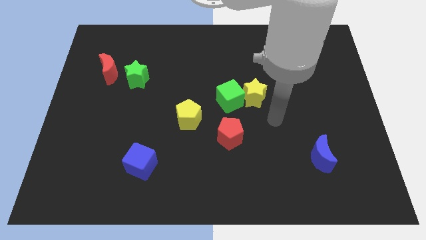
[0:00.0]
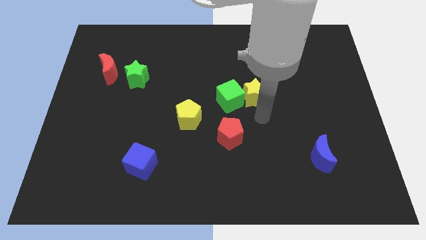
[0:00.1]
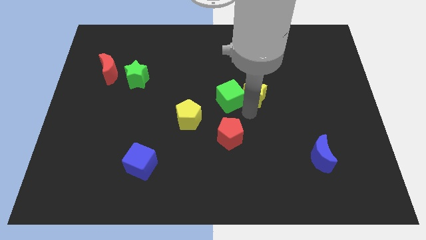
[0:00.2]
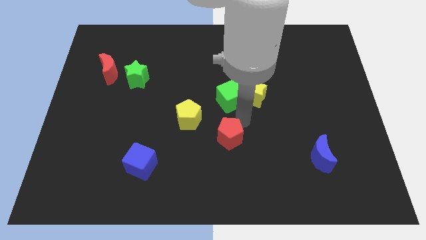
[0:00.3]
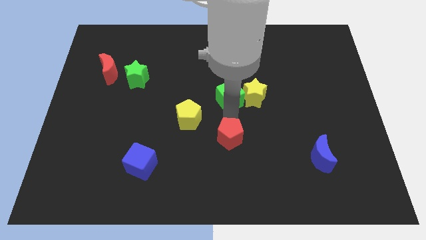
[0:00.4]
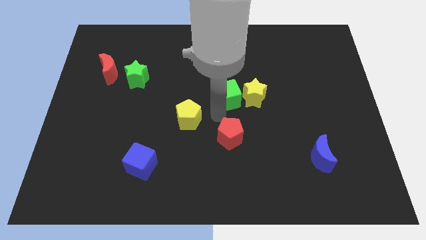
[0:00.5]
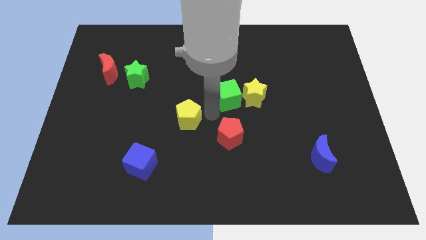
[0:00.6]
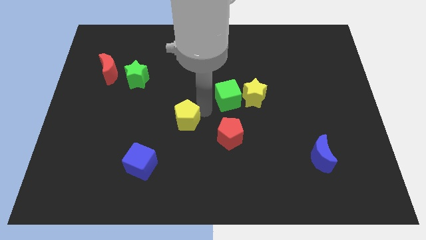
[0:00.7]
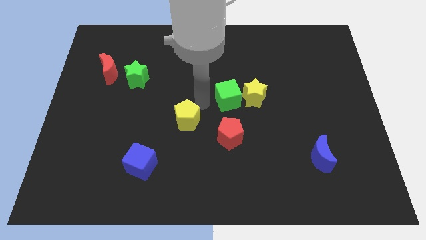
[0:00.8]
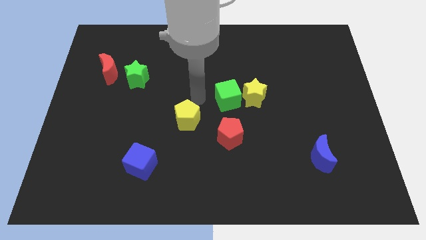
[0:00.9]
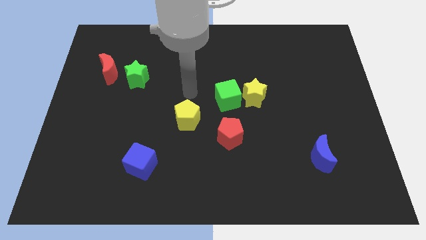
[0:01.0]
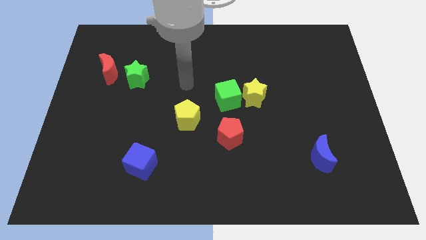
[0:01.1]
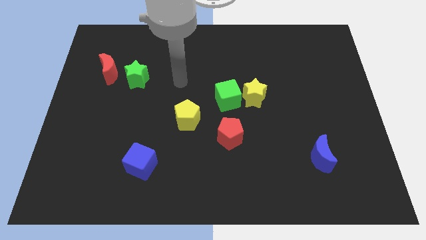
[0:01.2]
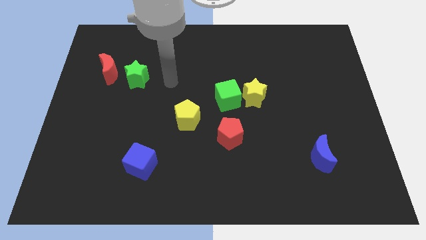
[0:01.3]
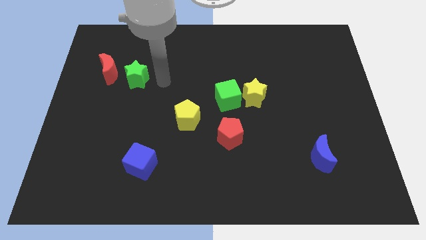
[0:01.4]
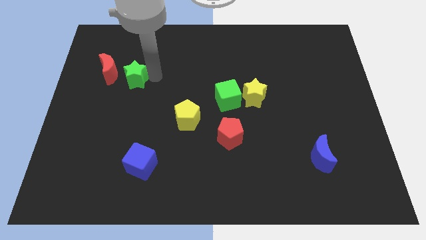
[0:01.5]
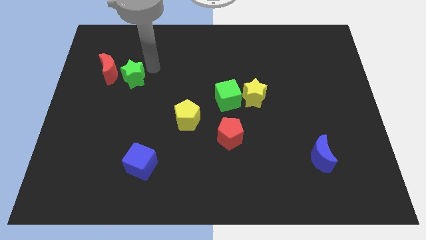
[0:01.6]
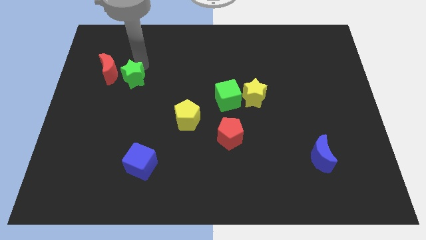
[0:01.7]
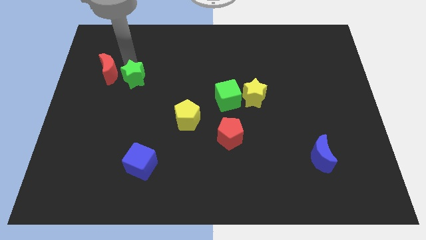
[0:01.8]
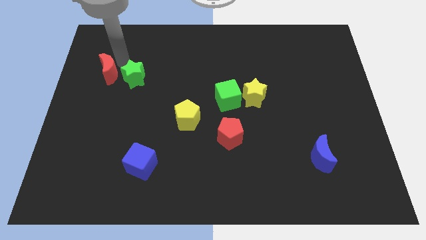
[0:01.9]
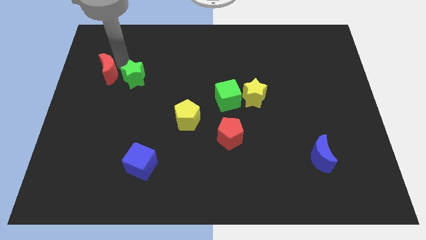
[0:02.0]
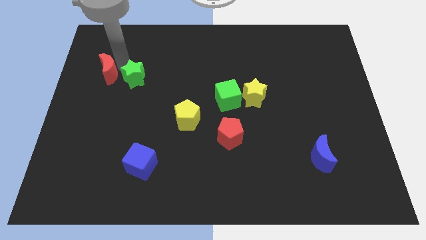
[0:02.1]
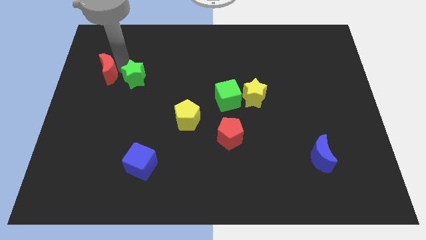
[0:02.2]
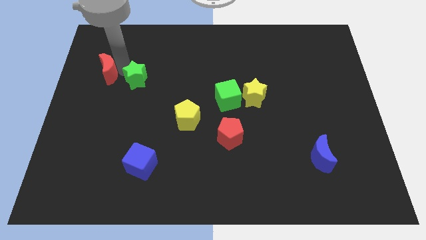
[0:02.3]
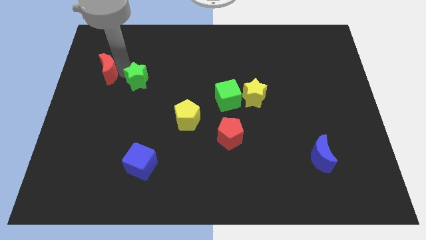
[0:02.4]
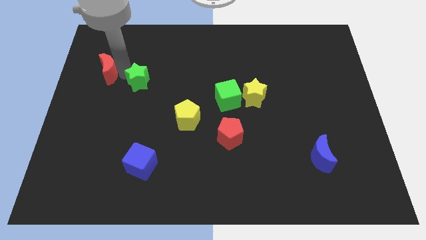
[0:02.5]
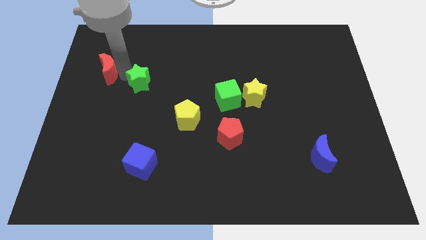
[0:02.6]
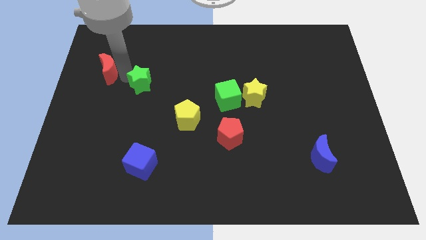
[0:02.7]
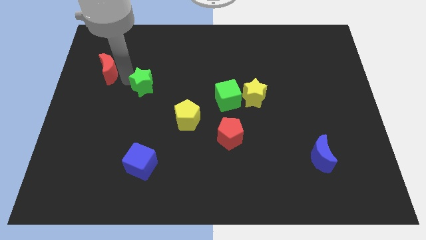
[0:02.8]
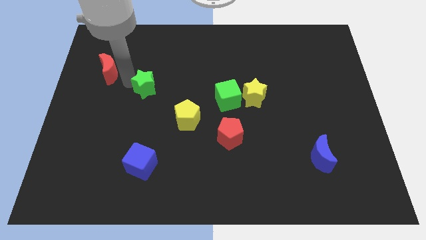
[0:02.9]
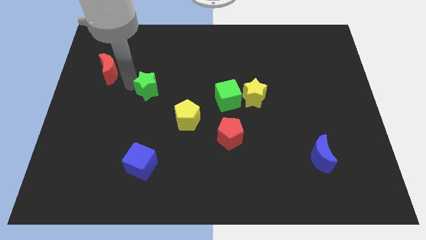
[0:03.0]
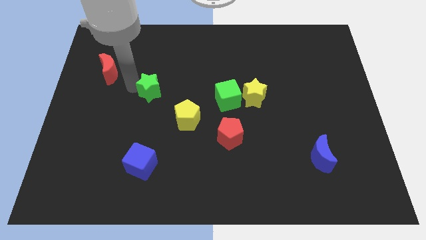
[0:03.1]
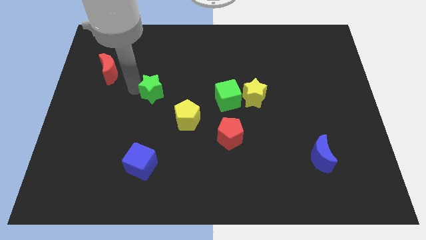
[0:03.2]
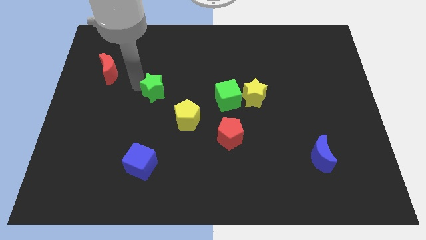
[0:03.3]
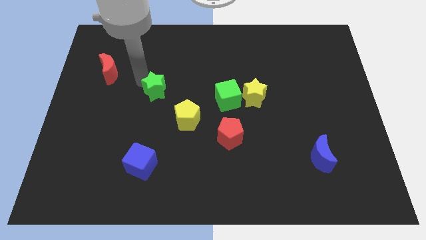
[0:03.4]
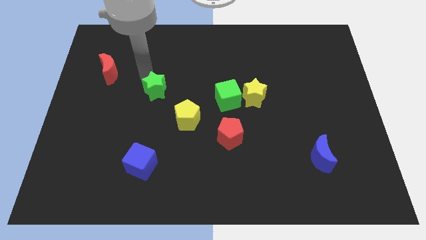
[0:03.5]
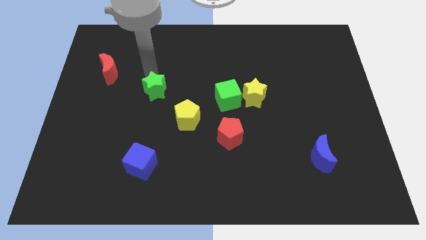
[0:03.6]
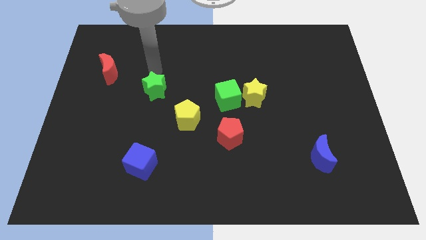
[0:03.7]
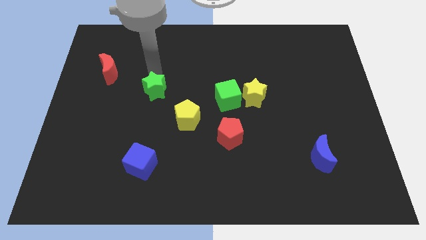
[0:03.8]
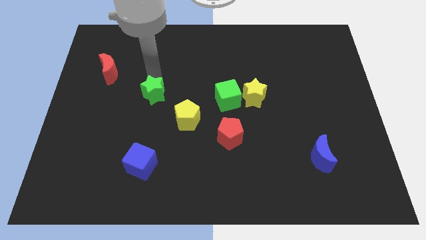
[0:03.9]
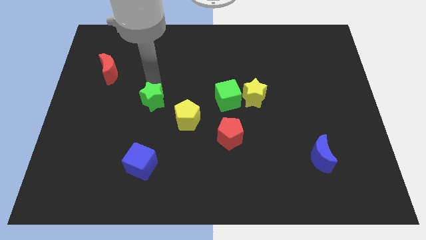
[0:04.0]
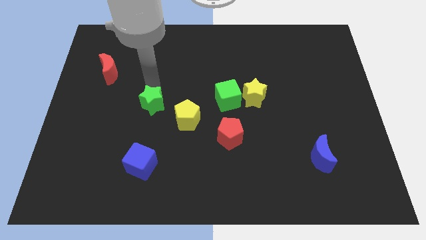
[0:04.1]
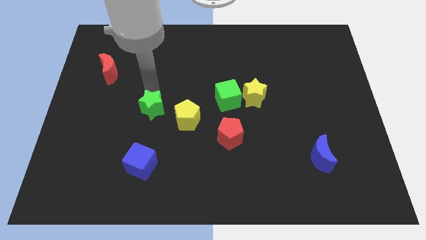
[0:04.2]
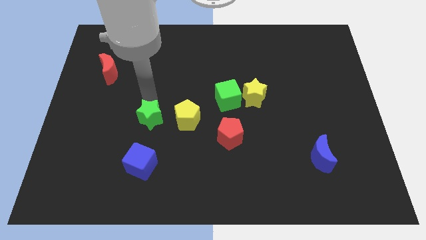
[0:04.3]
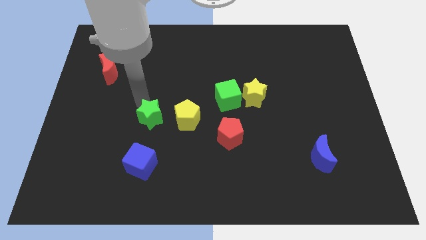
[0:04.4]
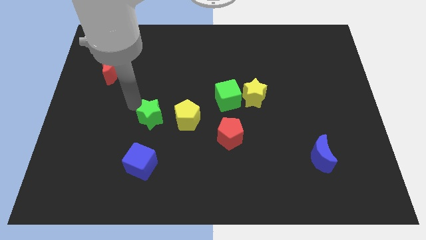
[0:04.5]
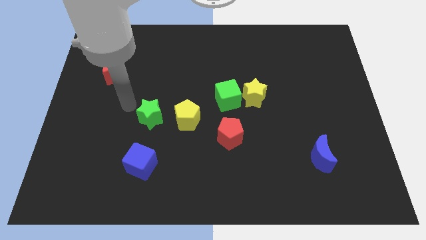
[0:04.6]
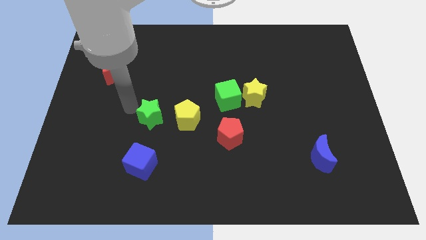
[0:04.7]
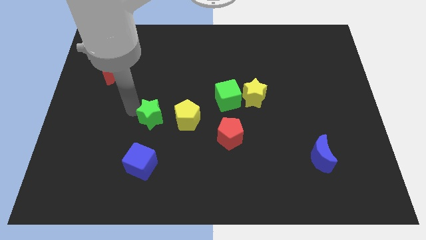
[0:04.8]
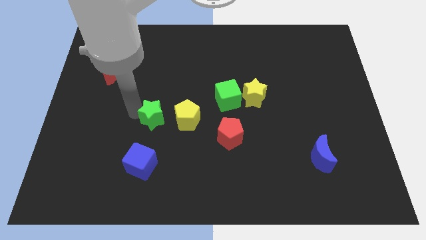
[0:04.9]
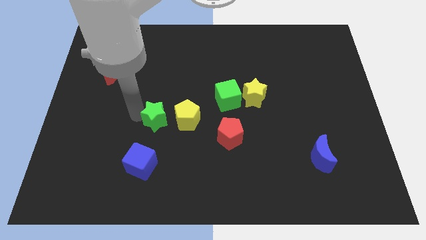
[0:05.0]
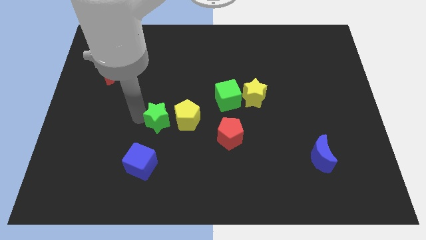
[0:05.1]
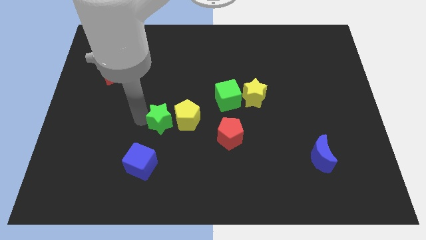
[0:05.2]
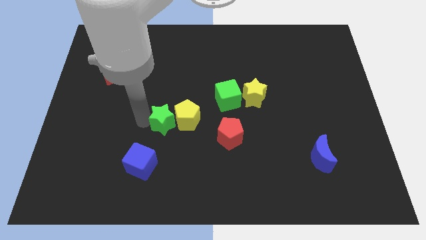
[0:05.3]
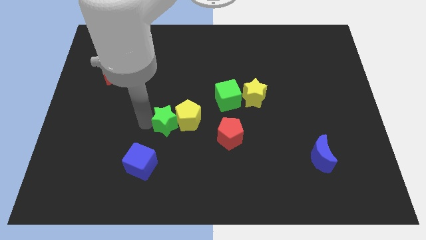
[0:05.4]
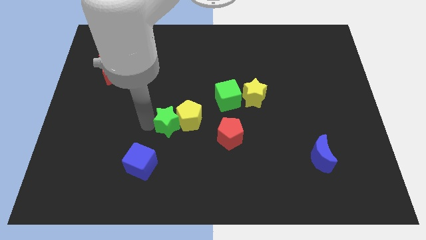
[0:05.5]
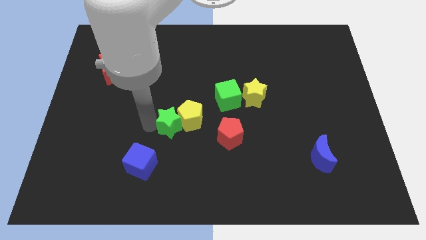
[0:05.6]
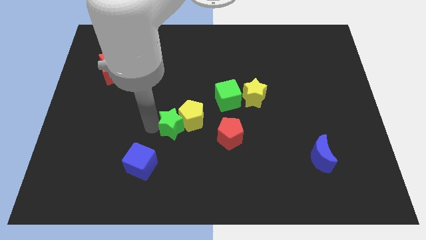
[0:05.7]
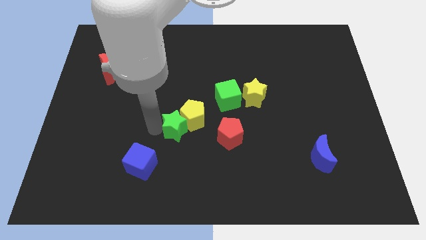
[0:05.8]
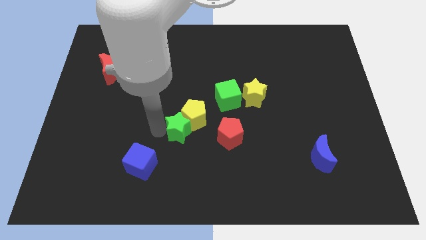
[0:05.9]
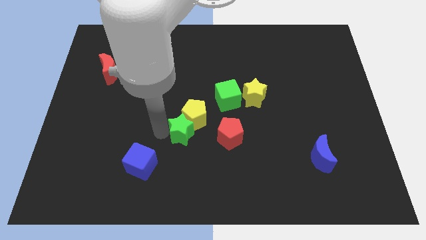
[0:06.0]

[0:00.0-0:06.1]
slide the green star downwards and to the right diagonally

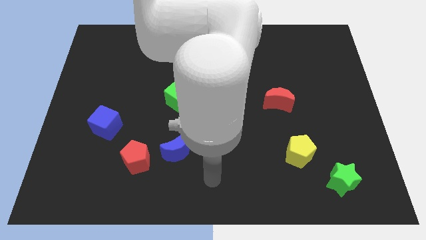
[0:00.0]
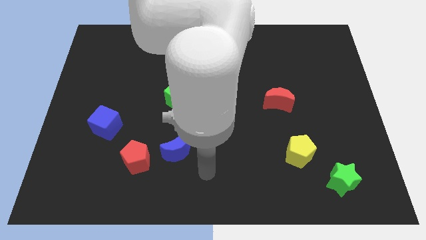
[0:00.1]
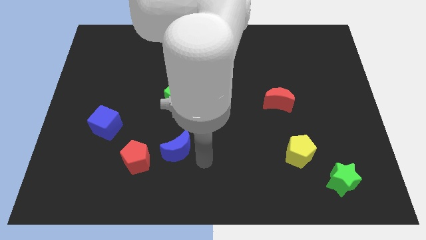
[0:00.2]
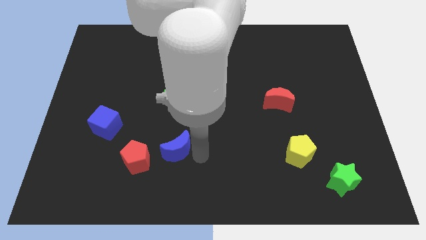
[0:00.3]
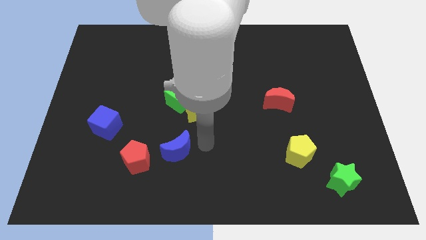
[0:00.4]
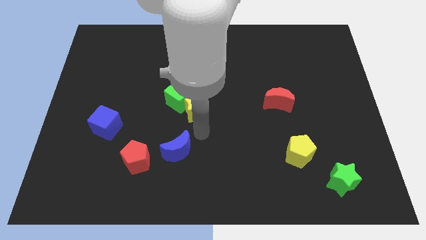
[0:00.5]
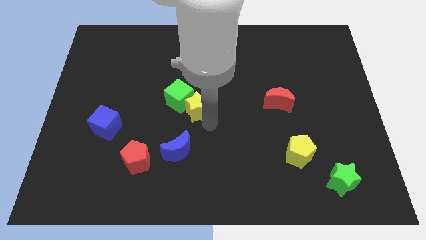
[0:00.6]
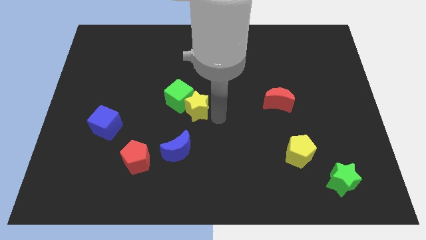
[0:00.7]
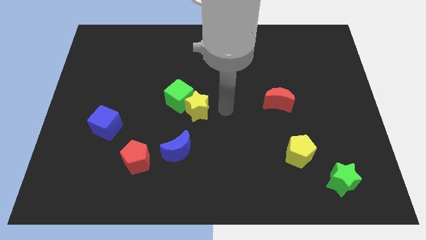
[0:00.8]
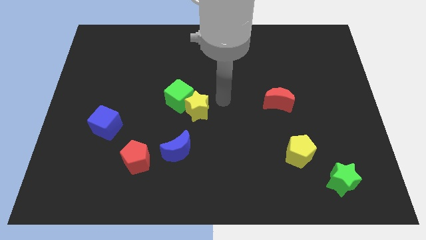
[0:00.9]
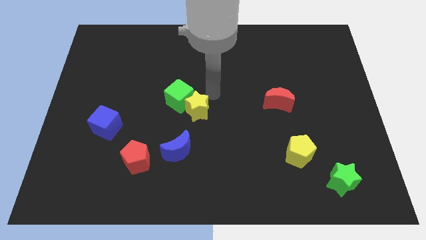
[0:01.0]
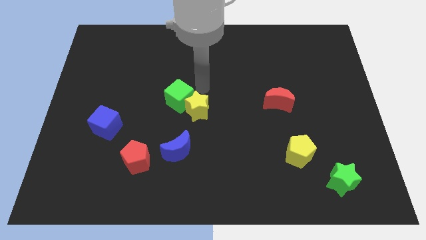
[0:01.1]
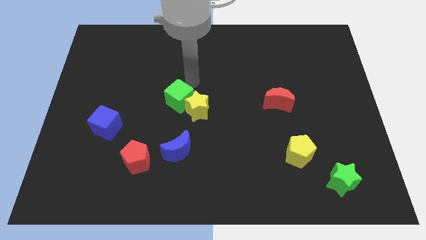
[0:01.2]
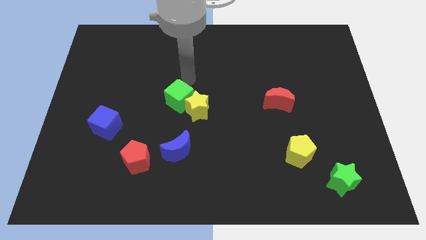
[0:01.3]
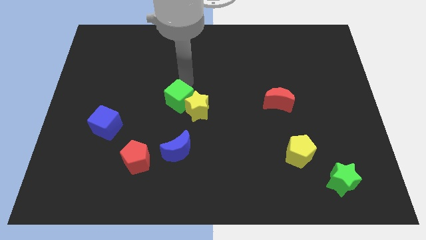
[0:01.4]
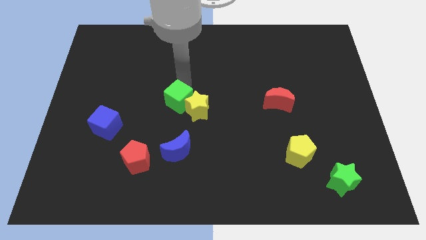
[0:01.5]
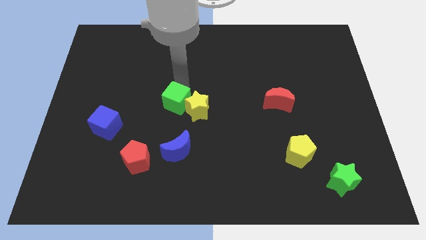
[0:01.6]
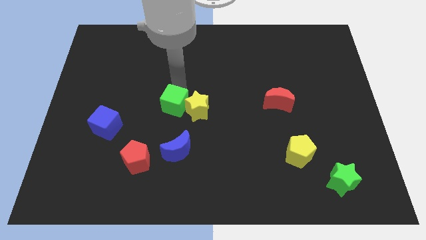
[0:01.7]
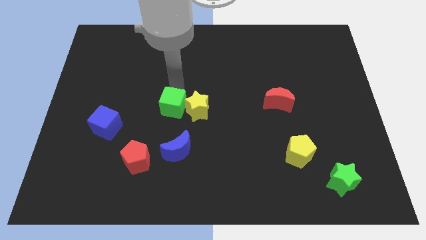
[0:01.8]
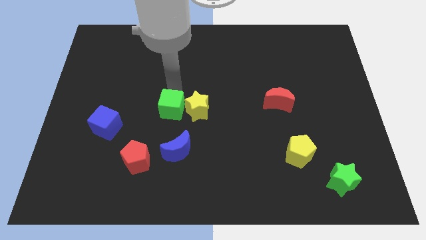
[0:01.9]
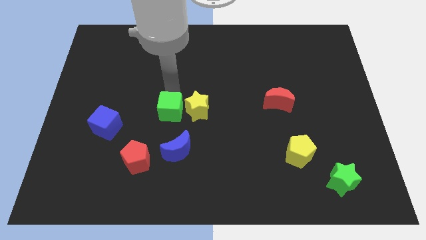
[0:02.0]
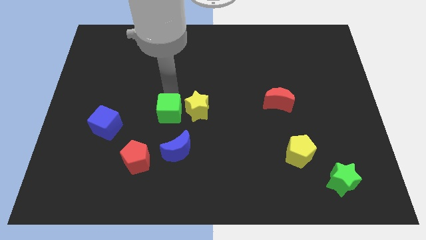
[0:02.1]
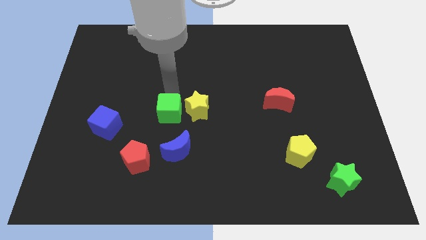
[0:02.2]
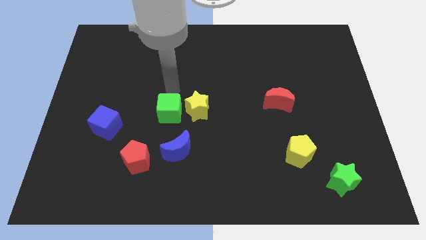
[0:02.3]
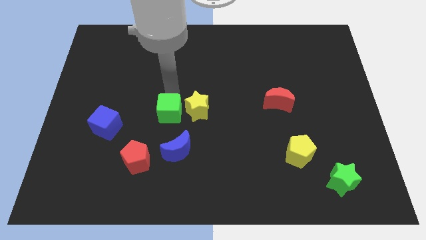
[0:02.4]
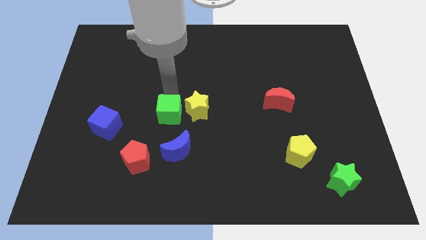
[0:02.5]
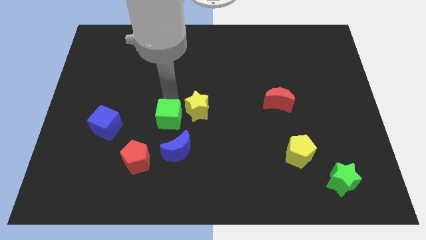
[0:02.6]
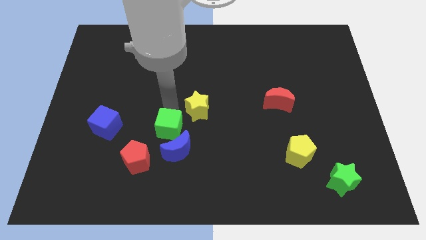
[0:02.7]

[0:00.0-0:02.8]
push the green cube down slightly
